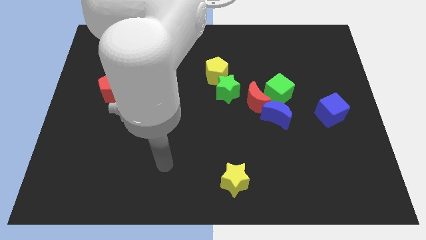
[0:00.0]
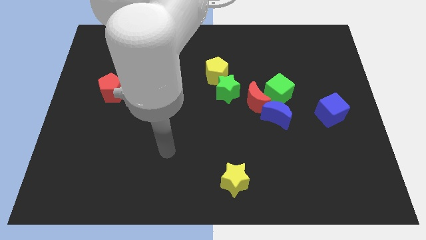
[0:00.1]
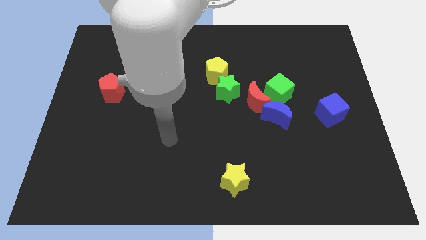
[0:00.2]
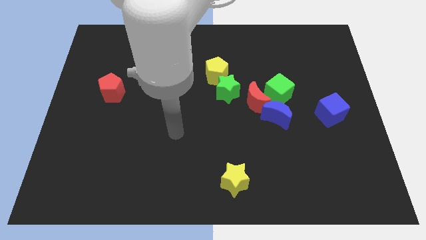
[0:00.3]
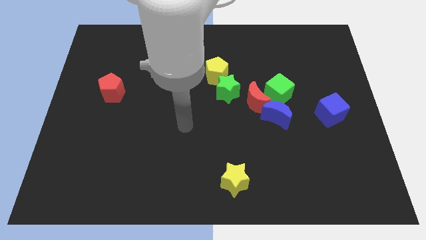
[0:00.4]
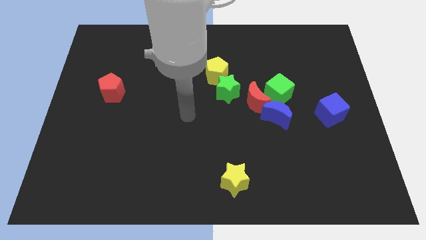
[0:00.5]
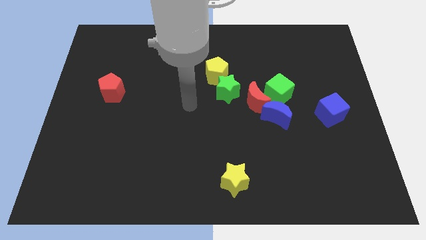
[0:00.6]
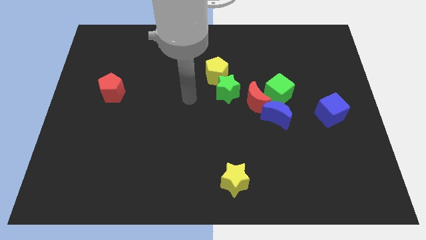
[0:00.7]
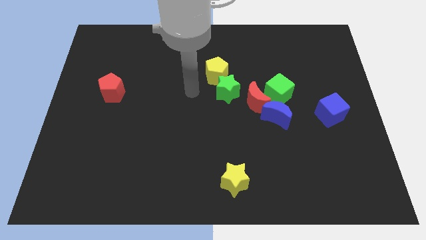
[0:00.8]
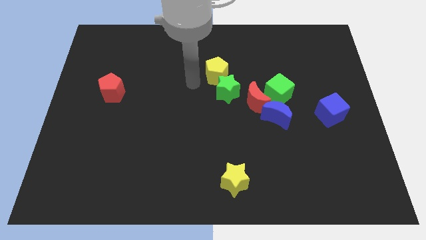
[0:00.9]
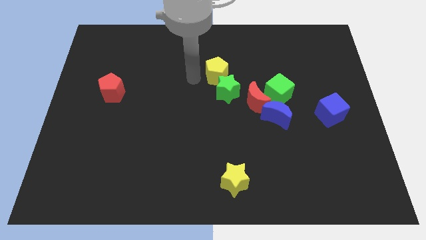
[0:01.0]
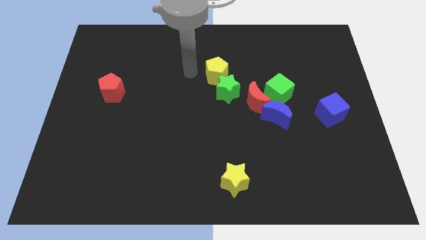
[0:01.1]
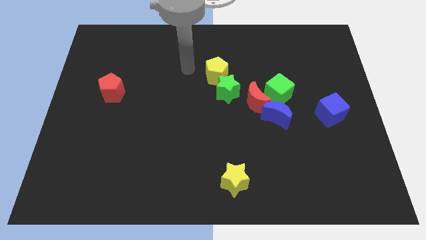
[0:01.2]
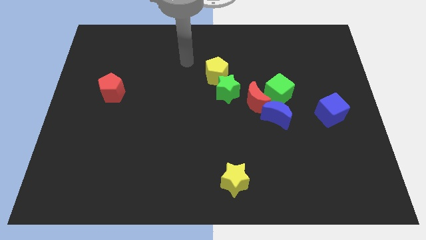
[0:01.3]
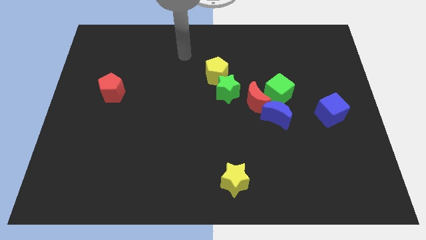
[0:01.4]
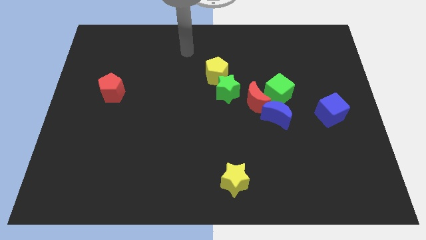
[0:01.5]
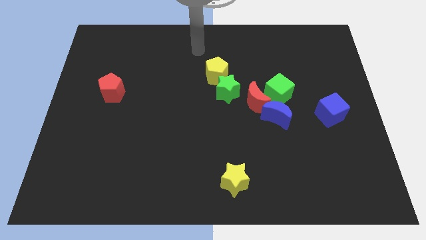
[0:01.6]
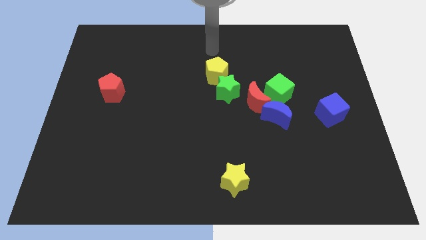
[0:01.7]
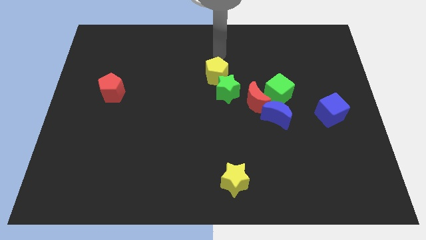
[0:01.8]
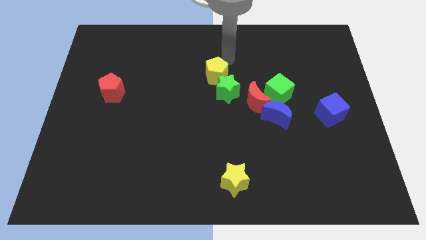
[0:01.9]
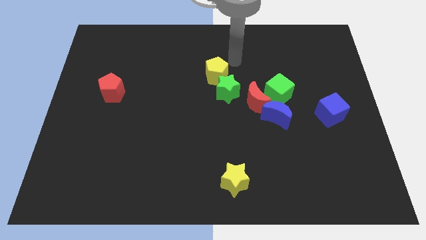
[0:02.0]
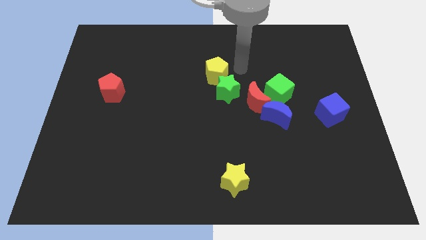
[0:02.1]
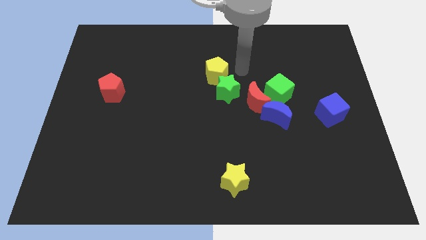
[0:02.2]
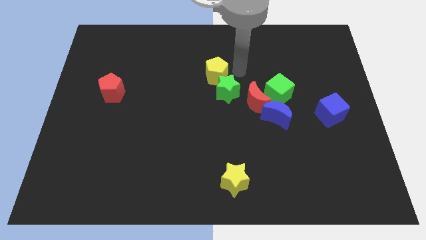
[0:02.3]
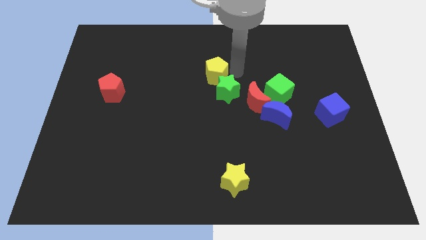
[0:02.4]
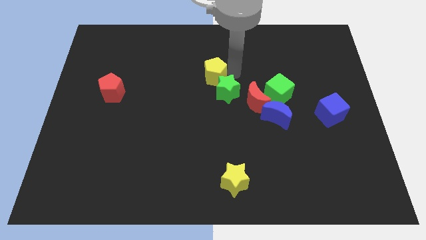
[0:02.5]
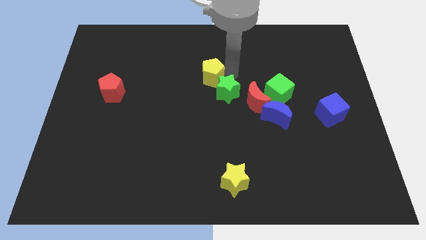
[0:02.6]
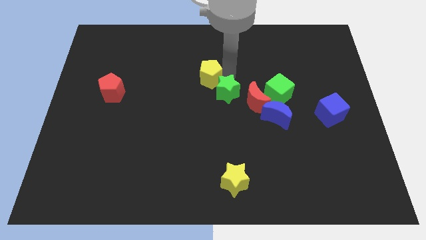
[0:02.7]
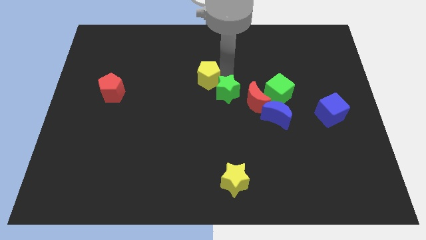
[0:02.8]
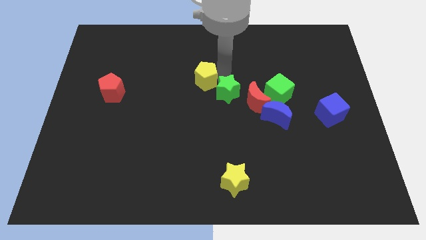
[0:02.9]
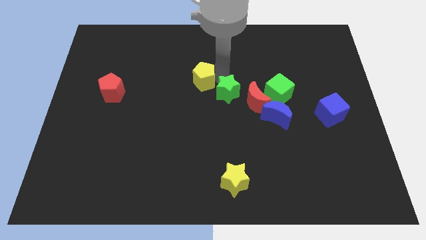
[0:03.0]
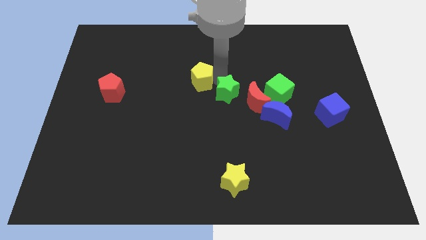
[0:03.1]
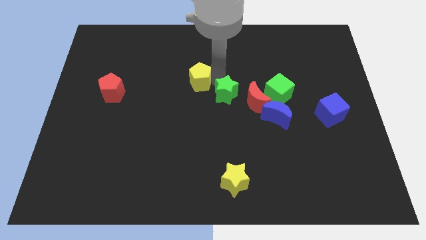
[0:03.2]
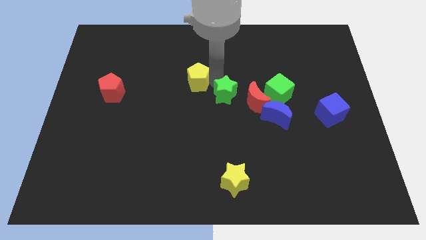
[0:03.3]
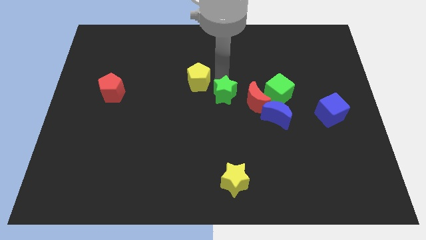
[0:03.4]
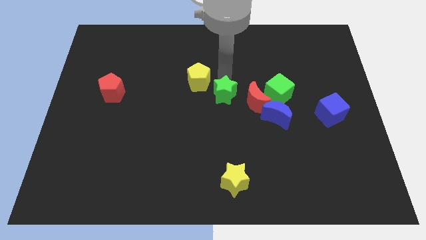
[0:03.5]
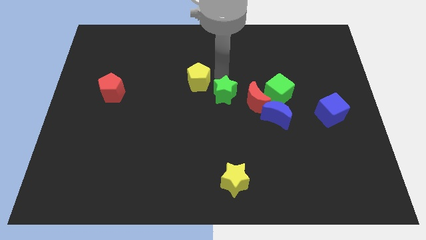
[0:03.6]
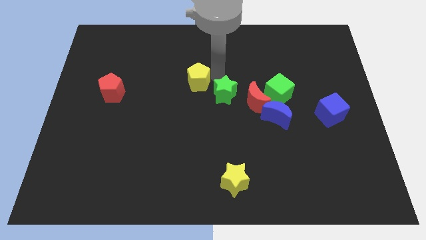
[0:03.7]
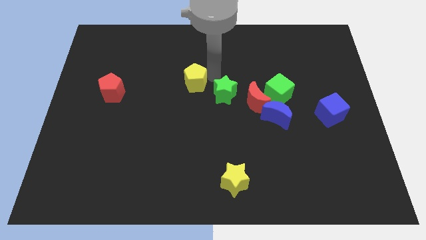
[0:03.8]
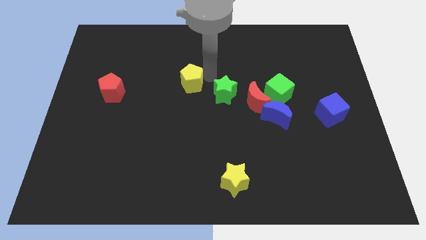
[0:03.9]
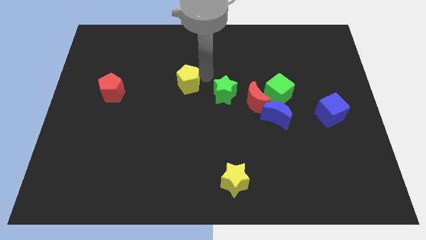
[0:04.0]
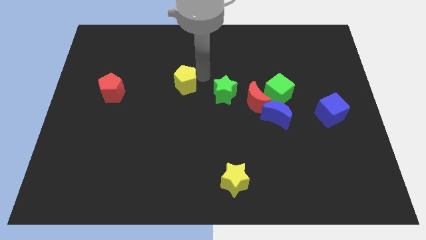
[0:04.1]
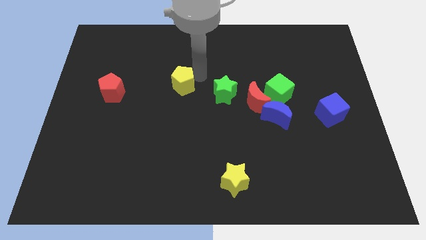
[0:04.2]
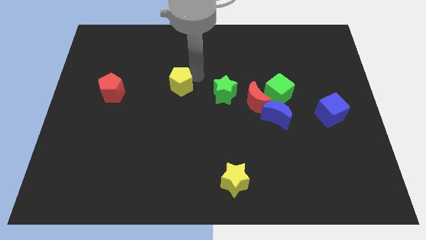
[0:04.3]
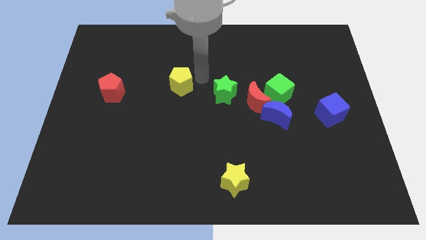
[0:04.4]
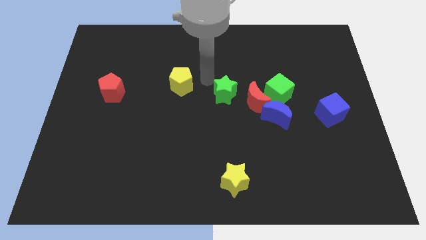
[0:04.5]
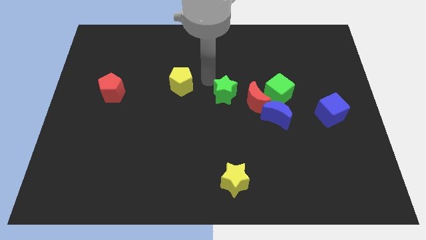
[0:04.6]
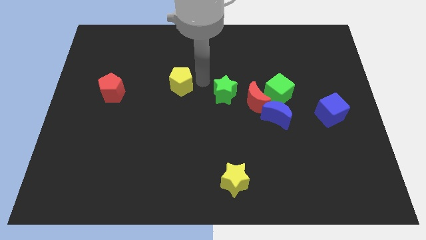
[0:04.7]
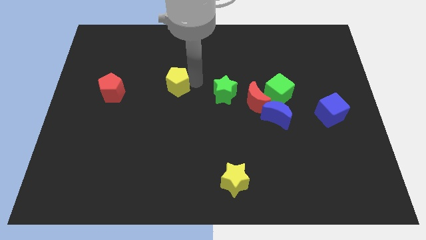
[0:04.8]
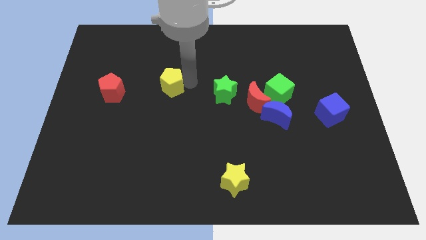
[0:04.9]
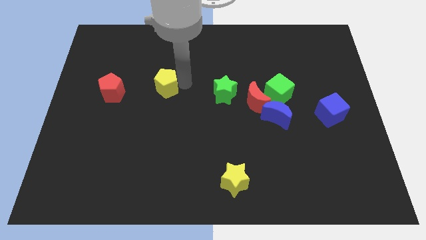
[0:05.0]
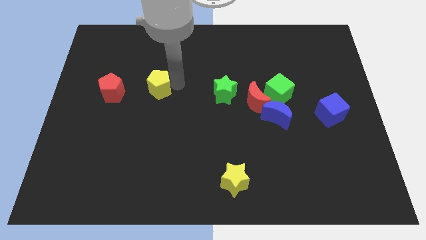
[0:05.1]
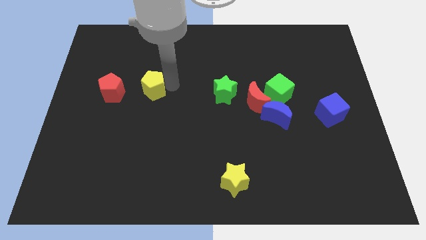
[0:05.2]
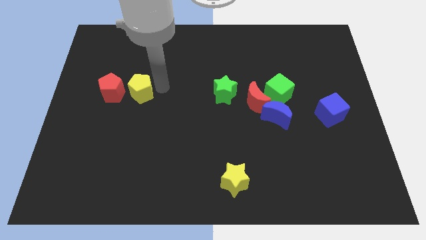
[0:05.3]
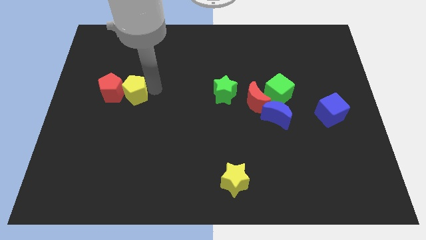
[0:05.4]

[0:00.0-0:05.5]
move the yellow pentagon towards the red pentagon

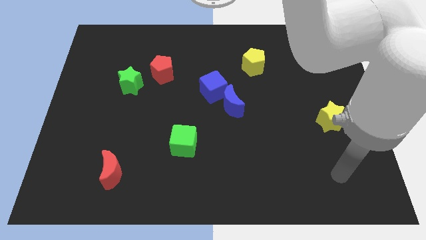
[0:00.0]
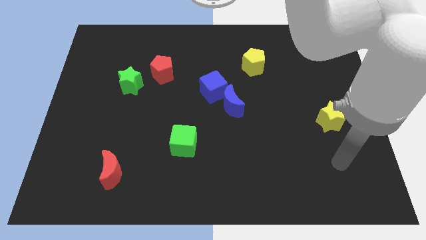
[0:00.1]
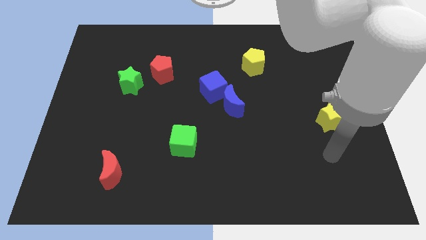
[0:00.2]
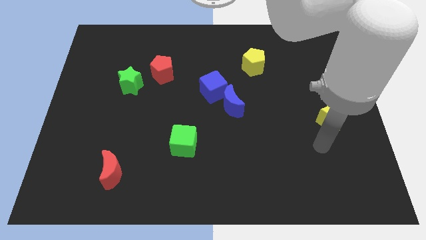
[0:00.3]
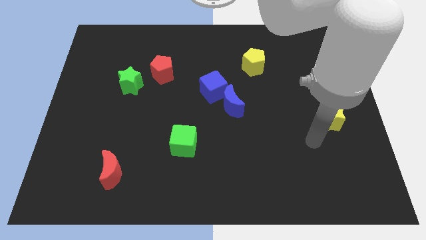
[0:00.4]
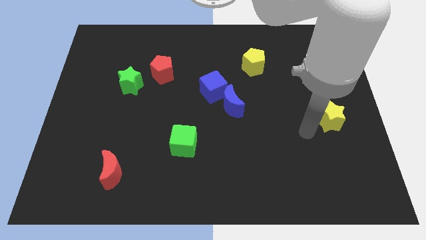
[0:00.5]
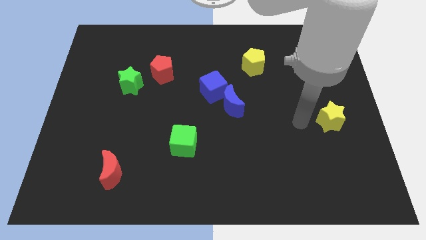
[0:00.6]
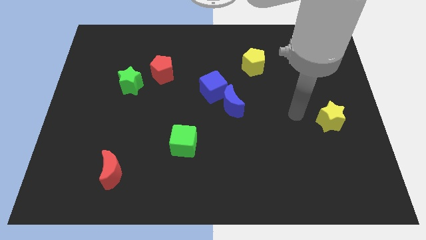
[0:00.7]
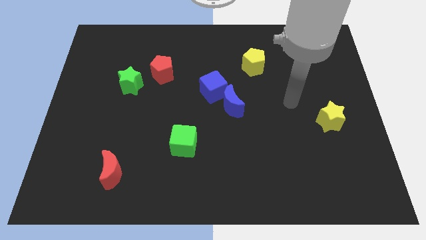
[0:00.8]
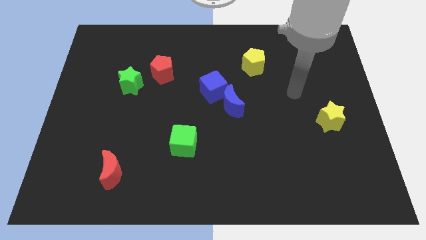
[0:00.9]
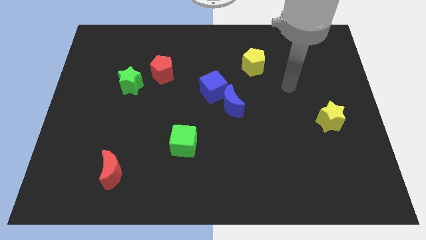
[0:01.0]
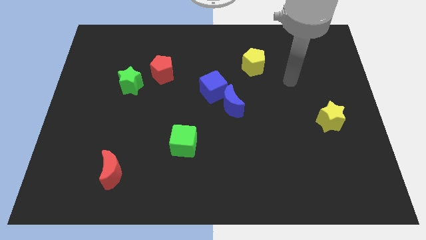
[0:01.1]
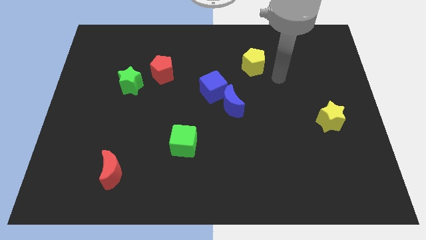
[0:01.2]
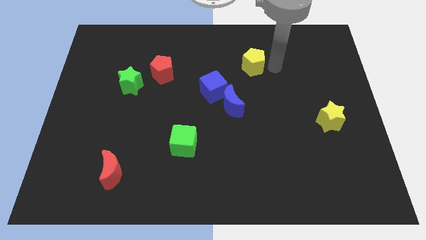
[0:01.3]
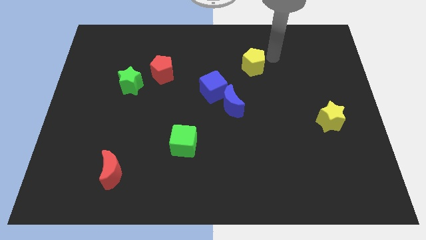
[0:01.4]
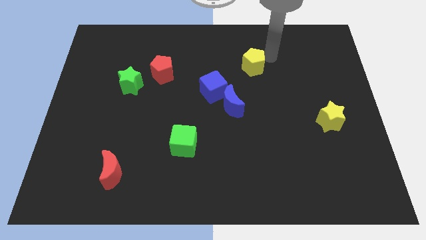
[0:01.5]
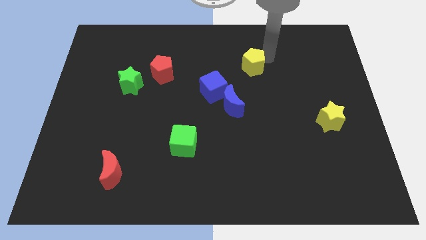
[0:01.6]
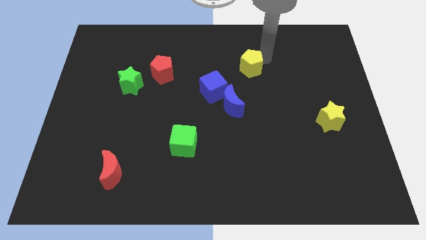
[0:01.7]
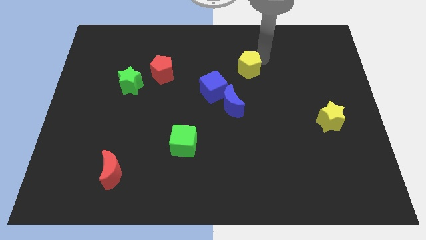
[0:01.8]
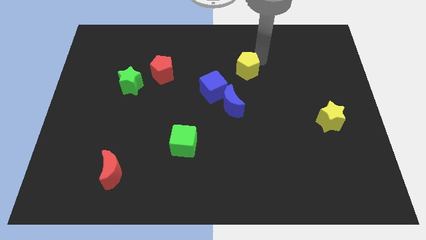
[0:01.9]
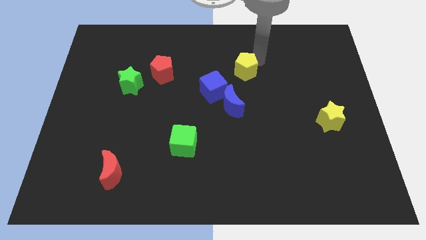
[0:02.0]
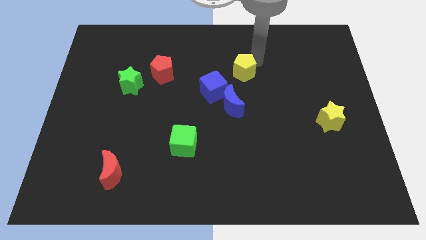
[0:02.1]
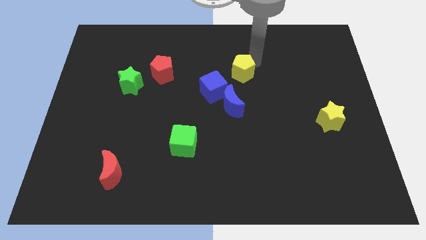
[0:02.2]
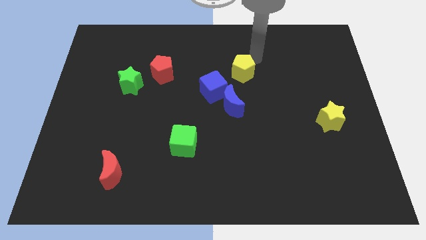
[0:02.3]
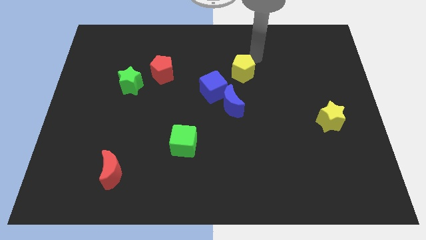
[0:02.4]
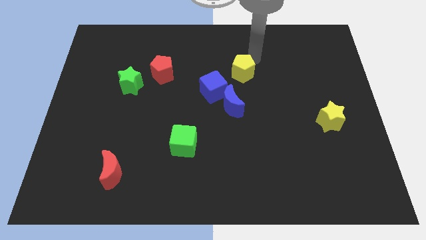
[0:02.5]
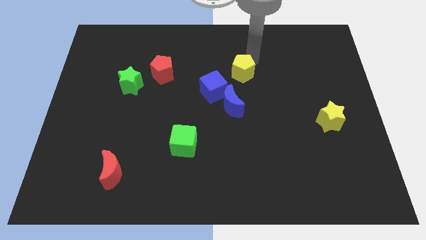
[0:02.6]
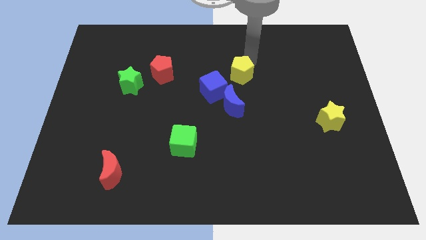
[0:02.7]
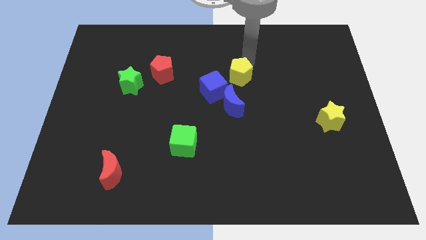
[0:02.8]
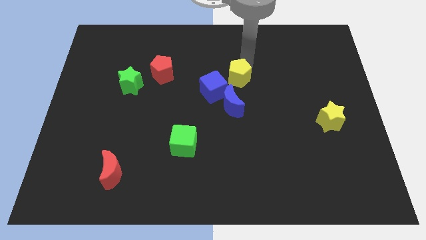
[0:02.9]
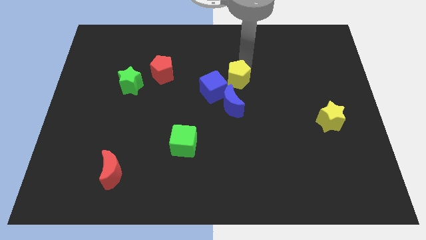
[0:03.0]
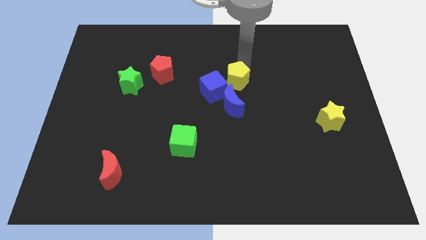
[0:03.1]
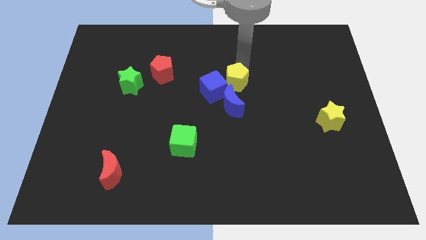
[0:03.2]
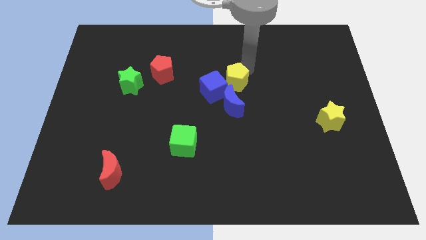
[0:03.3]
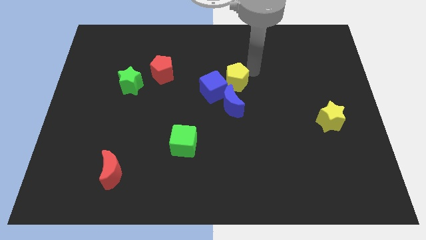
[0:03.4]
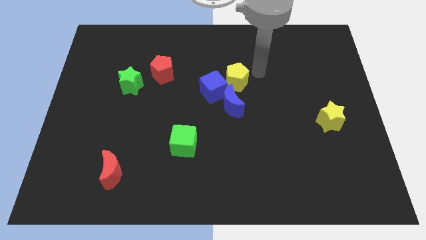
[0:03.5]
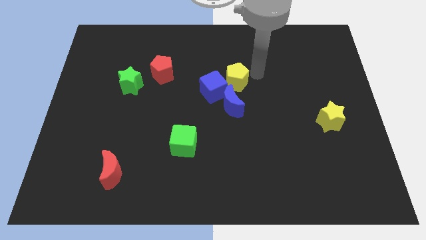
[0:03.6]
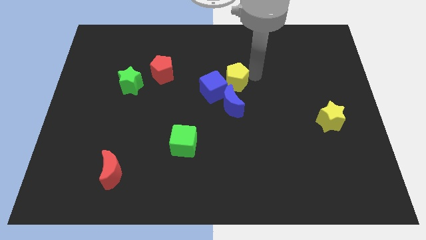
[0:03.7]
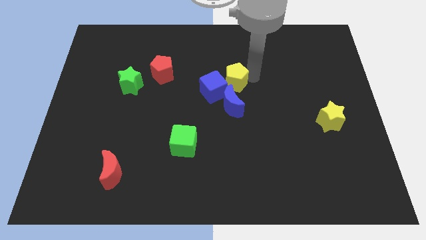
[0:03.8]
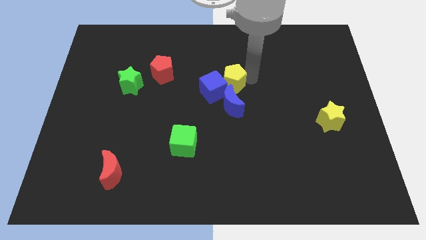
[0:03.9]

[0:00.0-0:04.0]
push the yellow pentagon towards the blue cube
